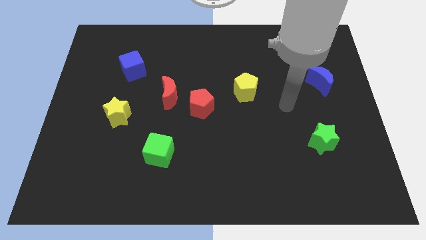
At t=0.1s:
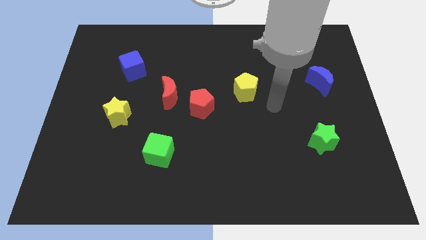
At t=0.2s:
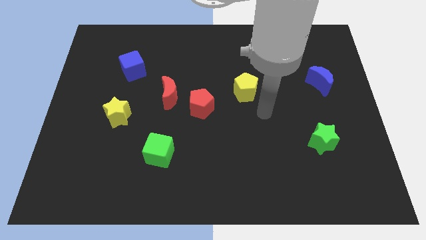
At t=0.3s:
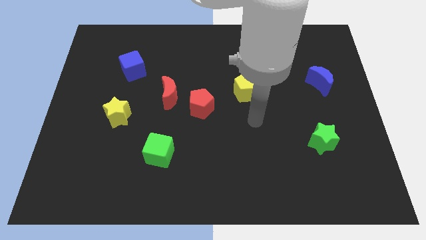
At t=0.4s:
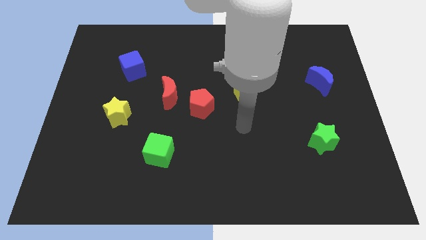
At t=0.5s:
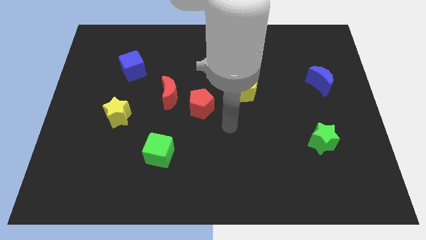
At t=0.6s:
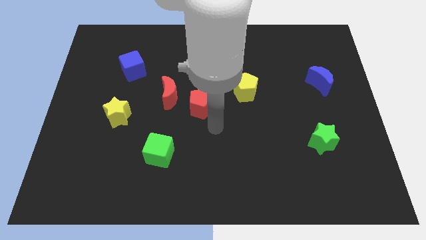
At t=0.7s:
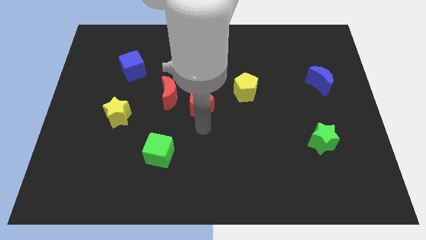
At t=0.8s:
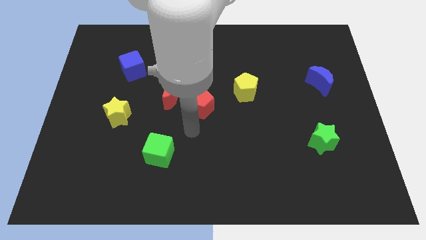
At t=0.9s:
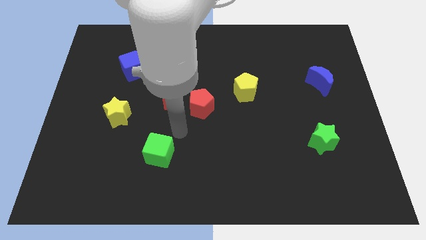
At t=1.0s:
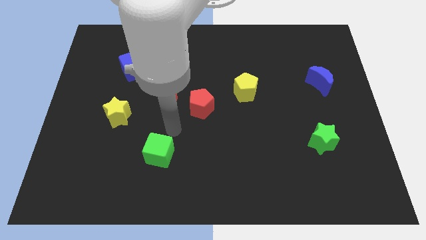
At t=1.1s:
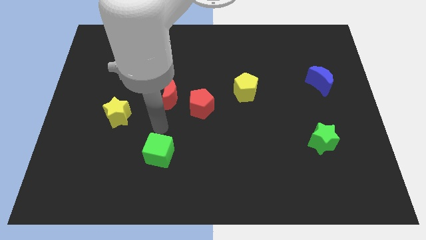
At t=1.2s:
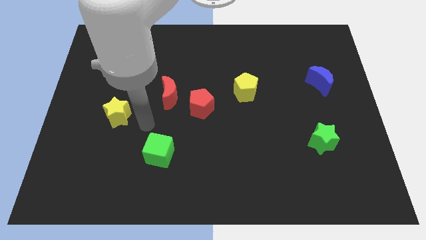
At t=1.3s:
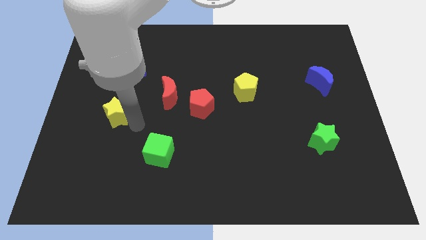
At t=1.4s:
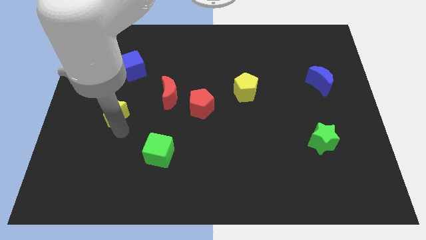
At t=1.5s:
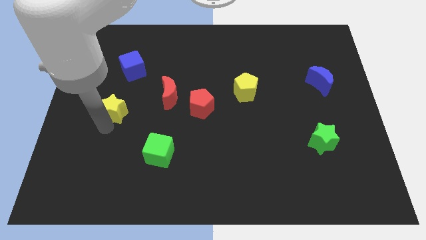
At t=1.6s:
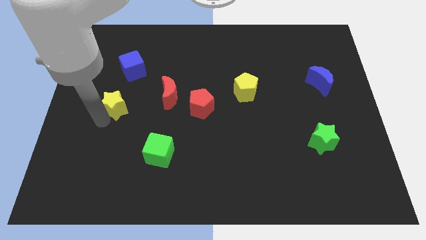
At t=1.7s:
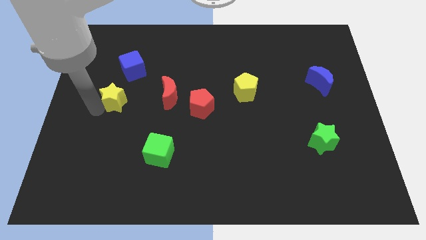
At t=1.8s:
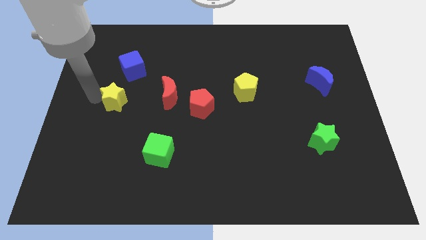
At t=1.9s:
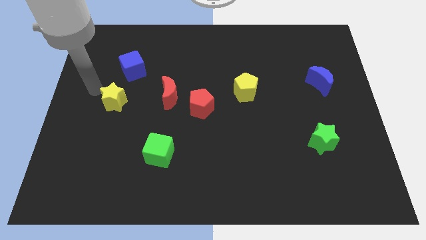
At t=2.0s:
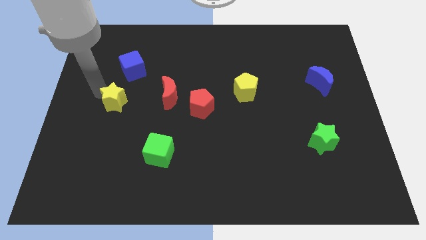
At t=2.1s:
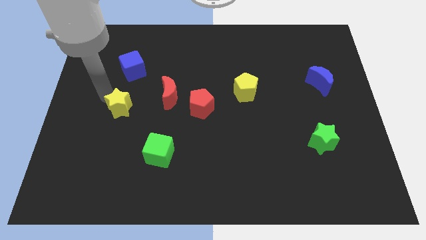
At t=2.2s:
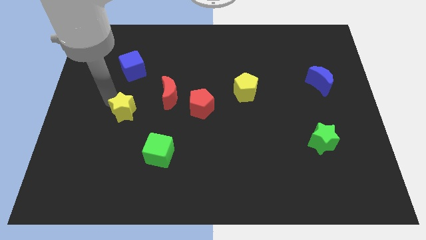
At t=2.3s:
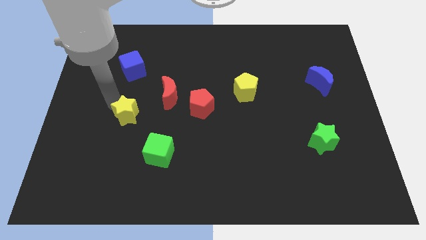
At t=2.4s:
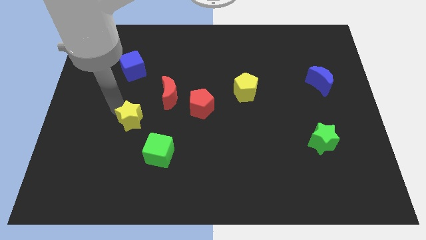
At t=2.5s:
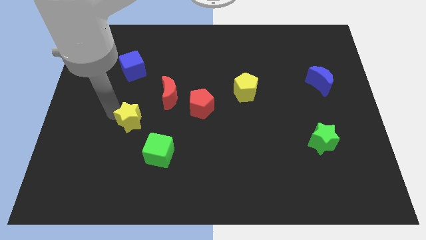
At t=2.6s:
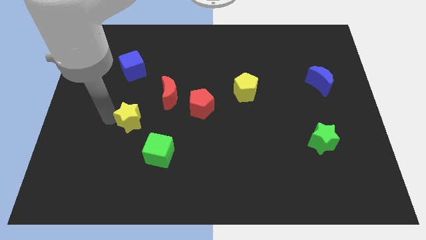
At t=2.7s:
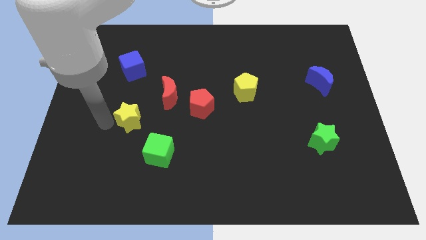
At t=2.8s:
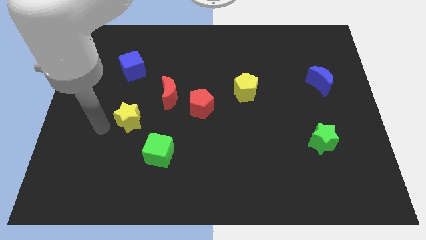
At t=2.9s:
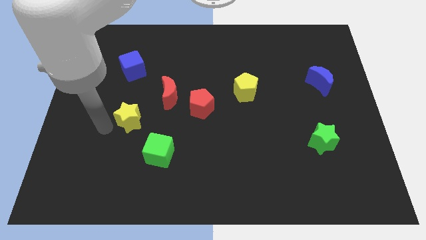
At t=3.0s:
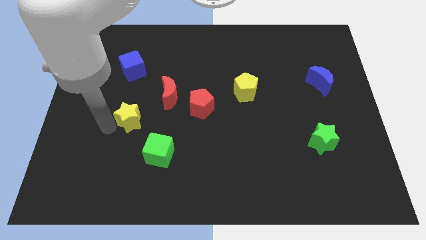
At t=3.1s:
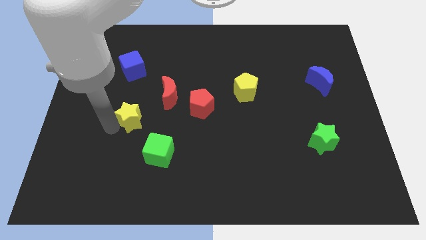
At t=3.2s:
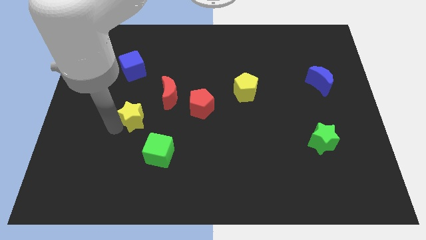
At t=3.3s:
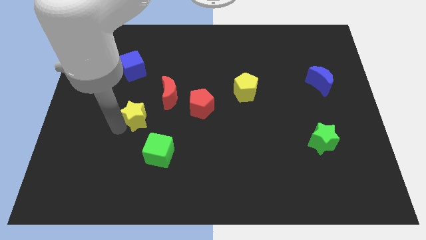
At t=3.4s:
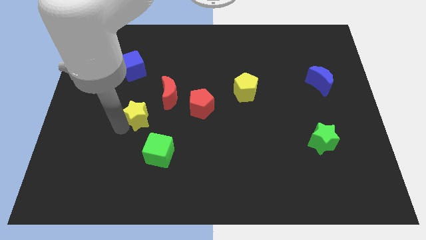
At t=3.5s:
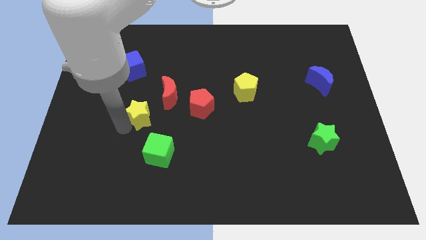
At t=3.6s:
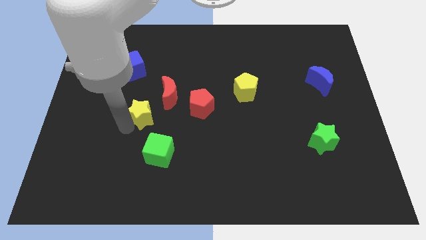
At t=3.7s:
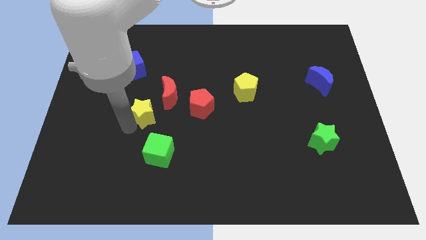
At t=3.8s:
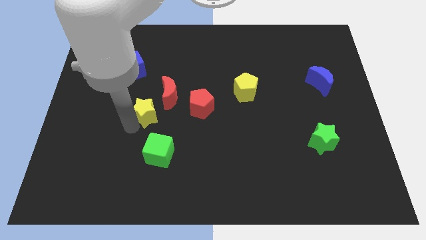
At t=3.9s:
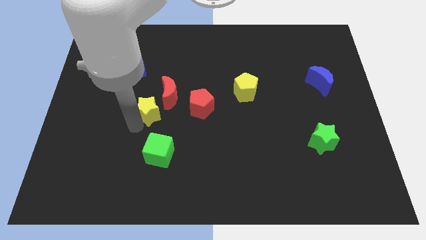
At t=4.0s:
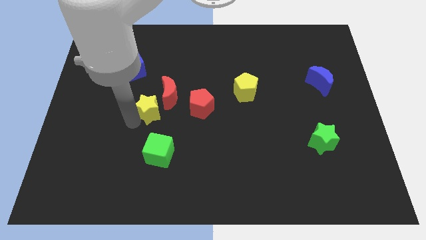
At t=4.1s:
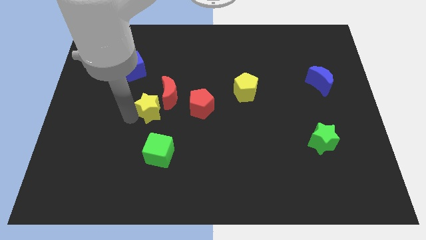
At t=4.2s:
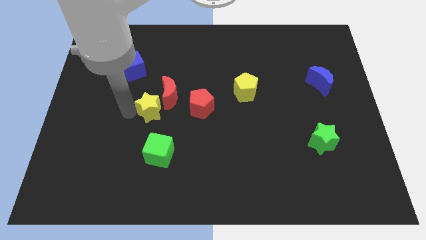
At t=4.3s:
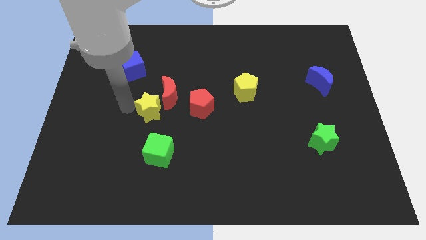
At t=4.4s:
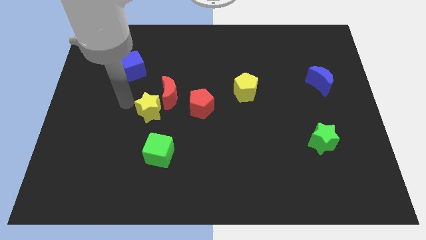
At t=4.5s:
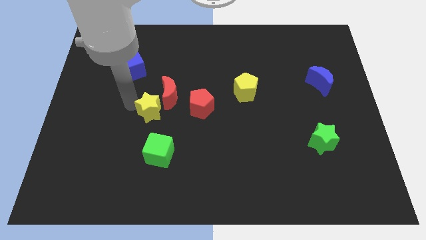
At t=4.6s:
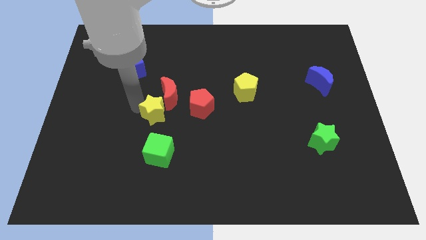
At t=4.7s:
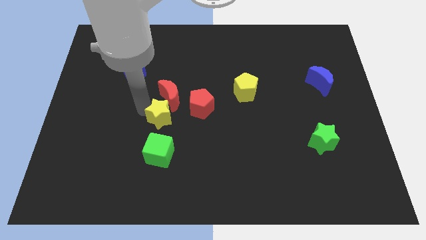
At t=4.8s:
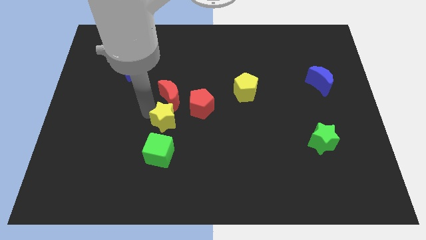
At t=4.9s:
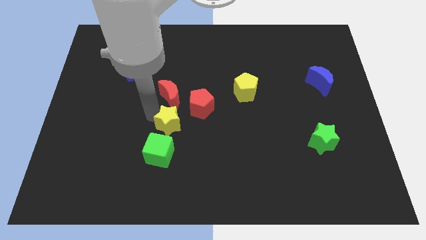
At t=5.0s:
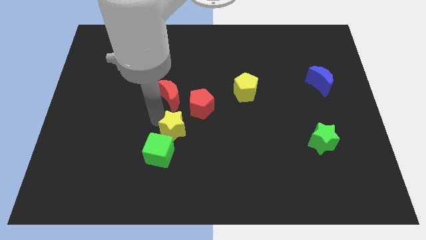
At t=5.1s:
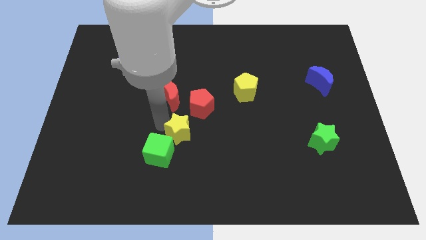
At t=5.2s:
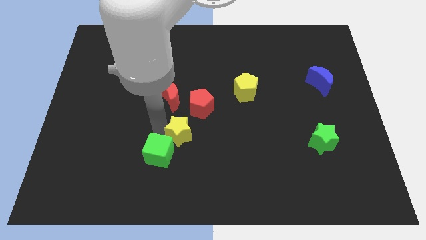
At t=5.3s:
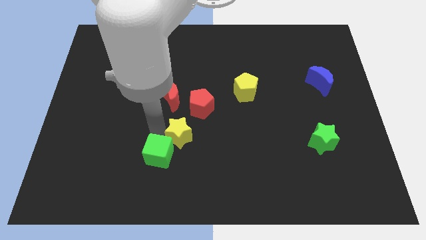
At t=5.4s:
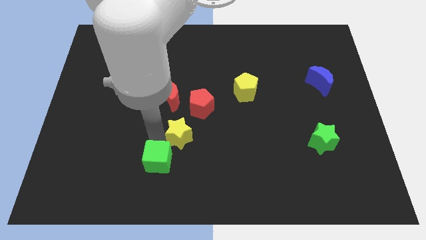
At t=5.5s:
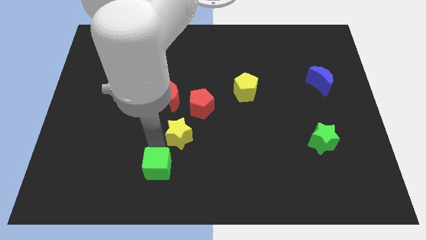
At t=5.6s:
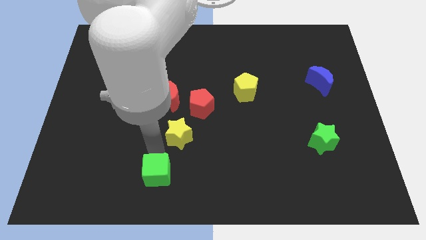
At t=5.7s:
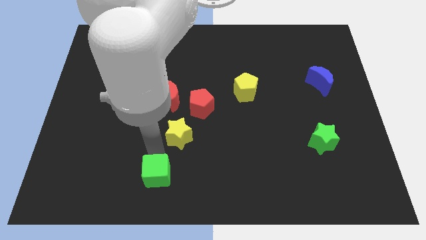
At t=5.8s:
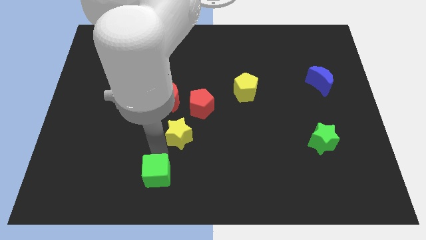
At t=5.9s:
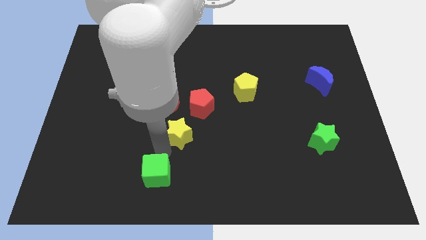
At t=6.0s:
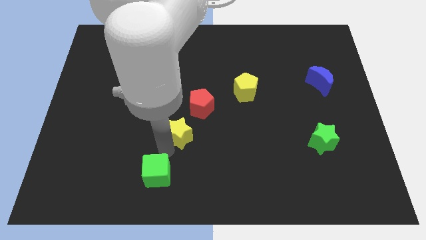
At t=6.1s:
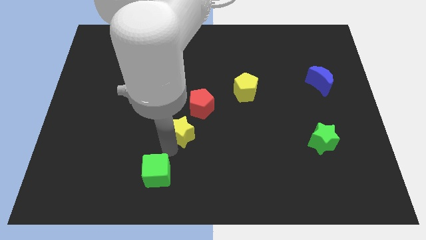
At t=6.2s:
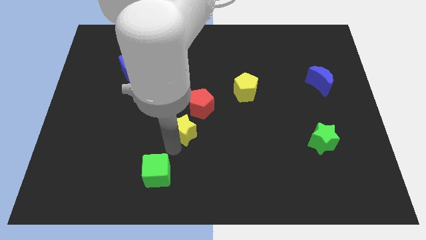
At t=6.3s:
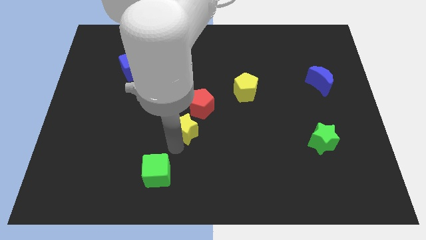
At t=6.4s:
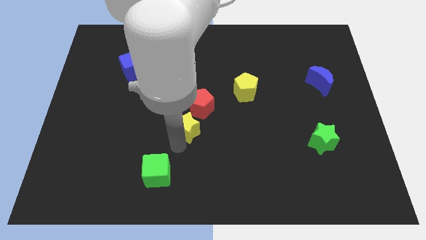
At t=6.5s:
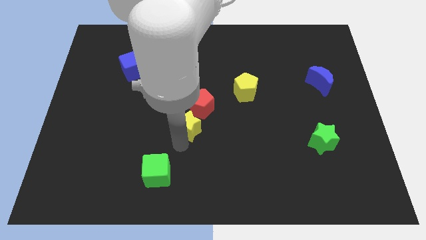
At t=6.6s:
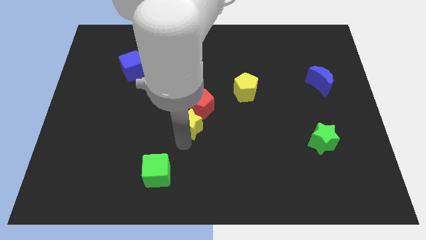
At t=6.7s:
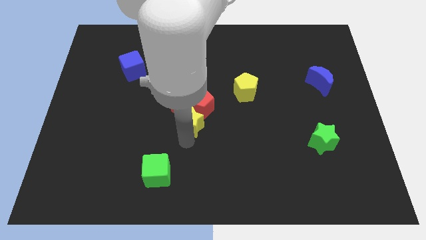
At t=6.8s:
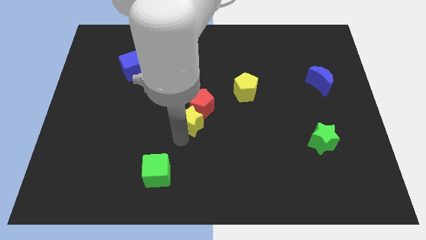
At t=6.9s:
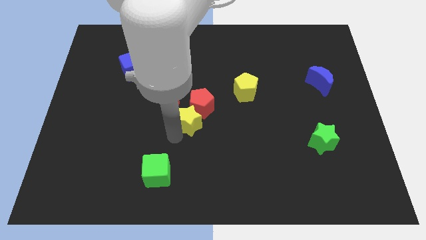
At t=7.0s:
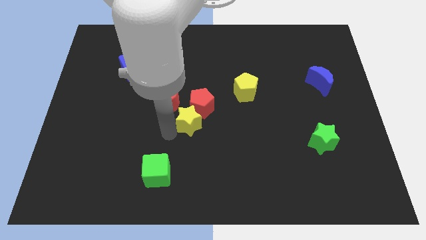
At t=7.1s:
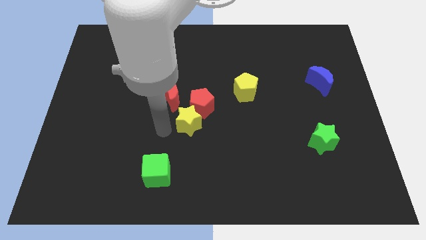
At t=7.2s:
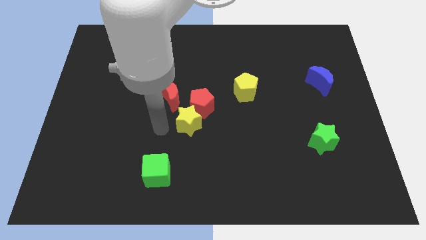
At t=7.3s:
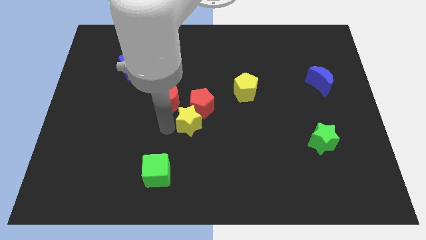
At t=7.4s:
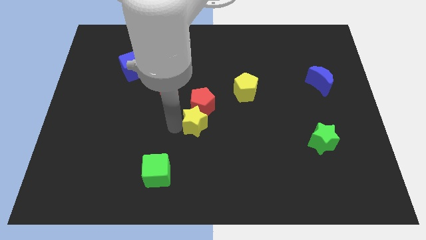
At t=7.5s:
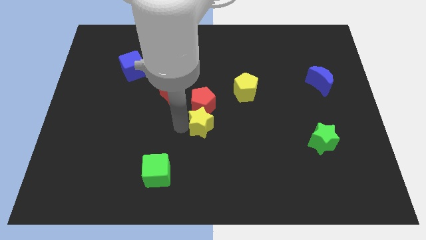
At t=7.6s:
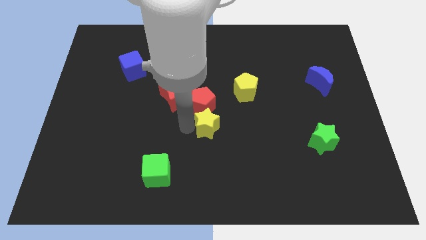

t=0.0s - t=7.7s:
slide the yellow star right
